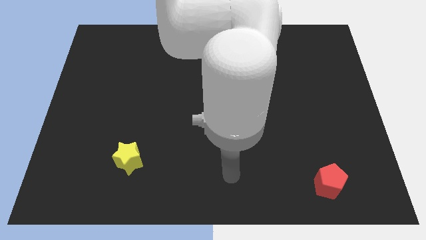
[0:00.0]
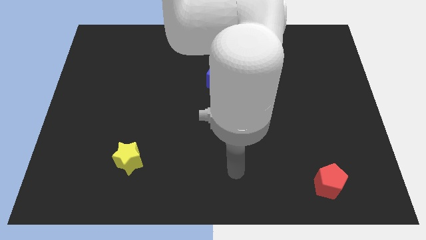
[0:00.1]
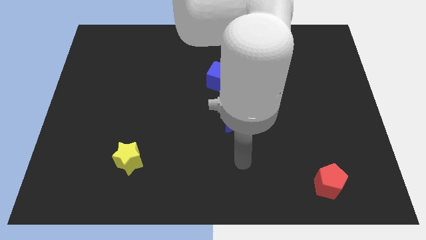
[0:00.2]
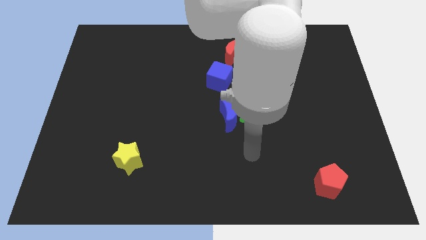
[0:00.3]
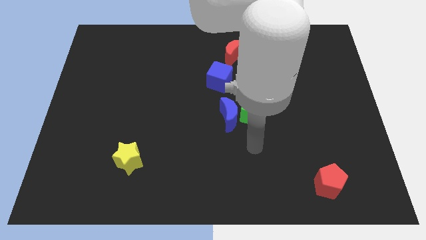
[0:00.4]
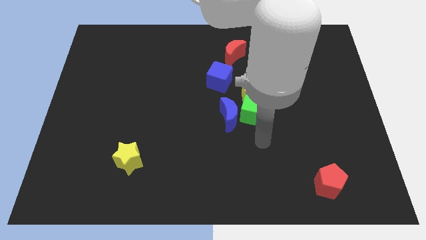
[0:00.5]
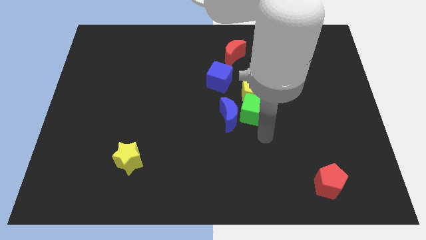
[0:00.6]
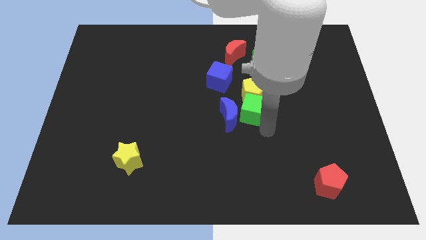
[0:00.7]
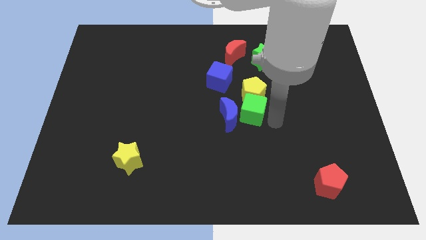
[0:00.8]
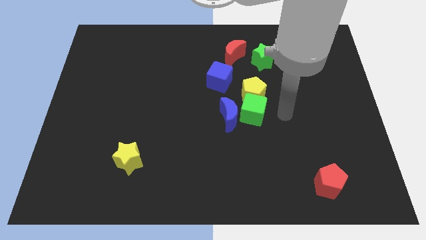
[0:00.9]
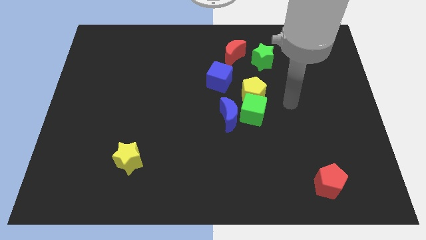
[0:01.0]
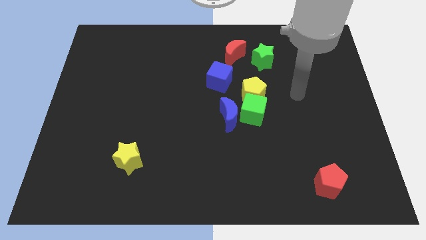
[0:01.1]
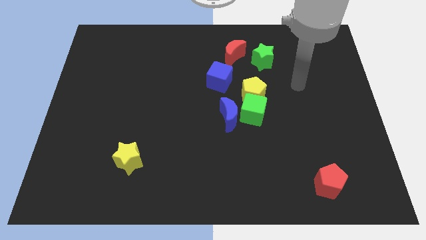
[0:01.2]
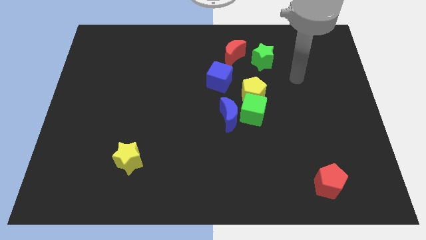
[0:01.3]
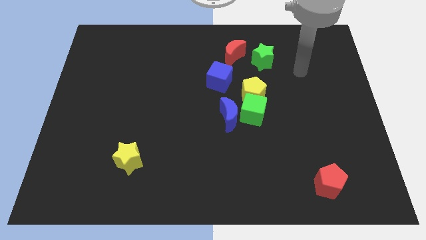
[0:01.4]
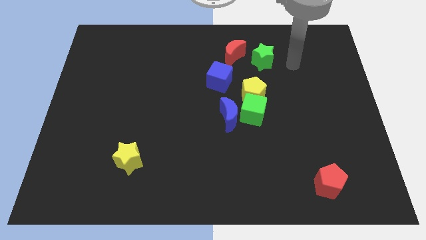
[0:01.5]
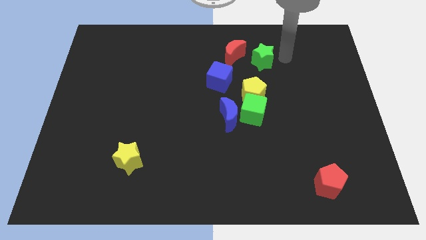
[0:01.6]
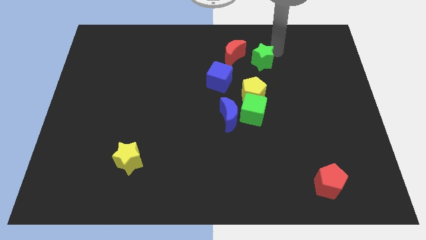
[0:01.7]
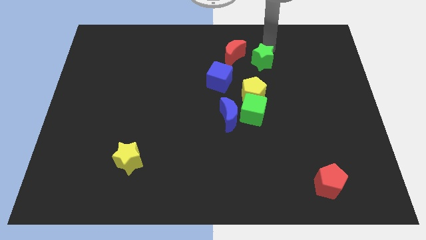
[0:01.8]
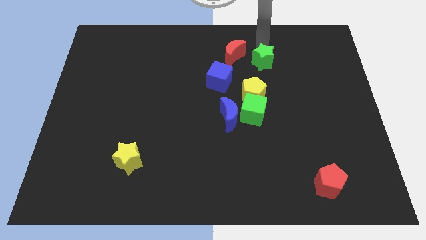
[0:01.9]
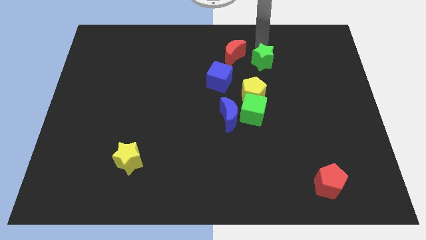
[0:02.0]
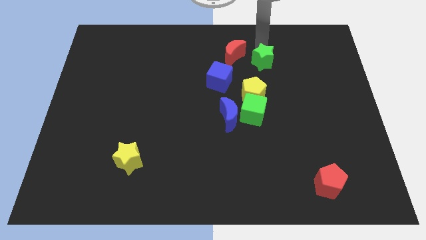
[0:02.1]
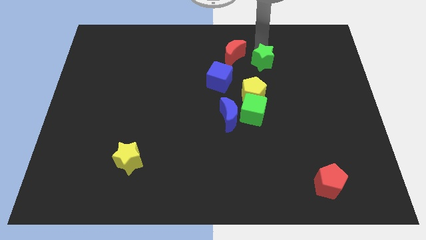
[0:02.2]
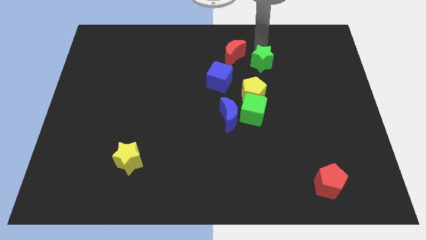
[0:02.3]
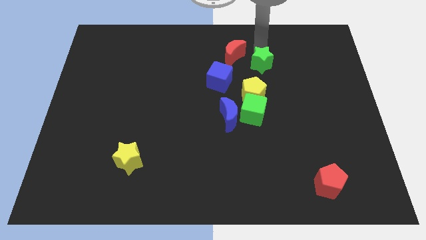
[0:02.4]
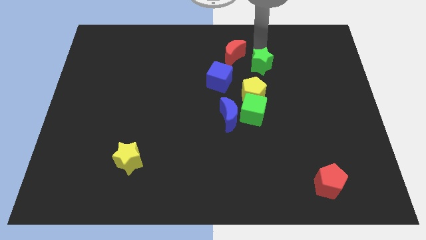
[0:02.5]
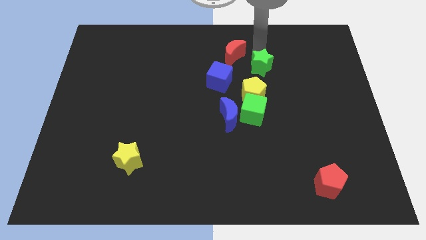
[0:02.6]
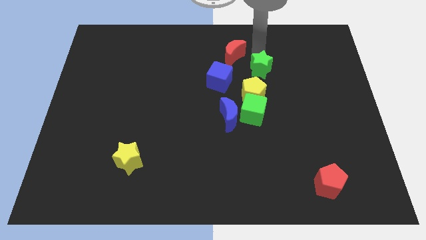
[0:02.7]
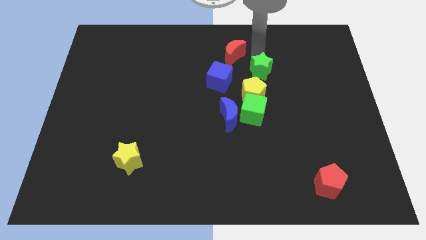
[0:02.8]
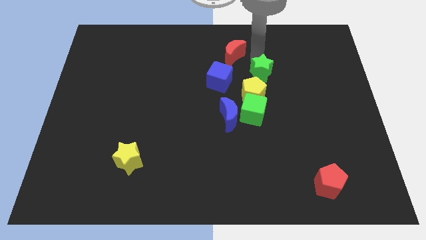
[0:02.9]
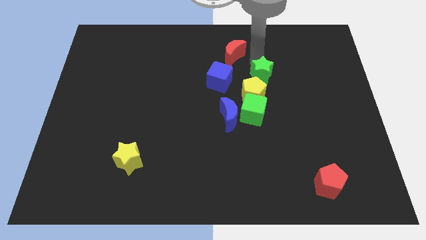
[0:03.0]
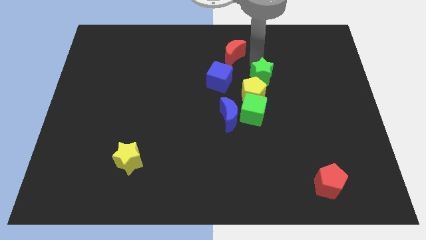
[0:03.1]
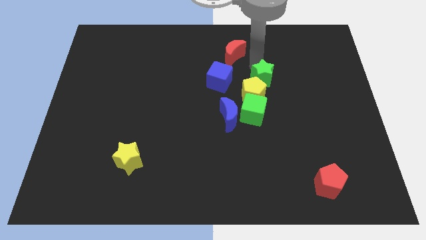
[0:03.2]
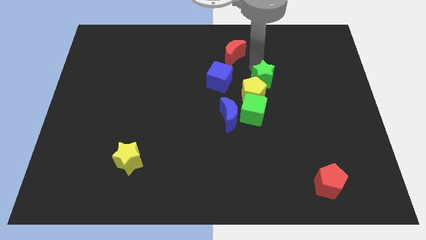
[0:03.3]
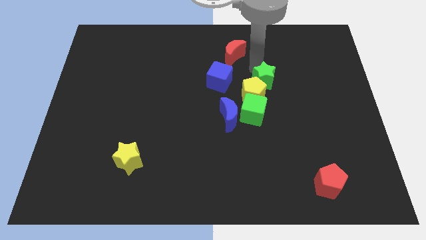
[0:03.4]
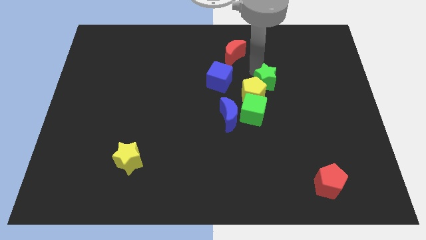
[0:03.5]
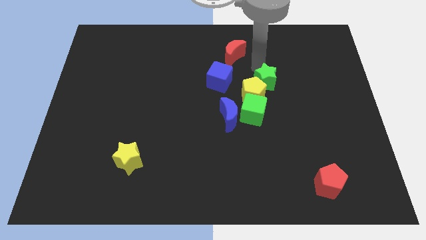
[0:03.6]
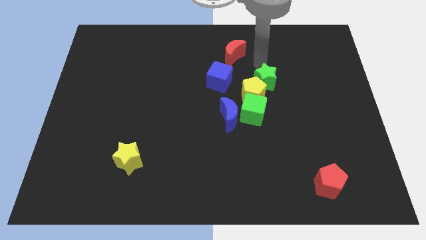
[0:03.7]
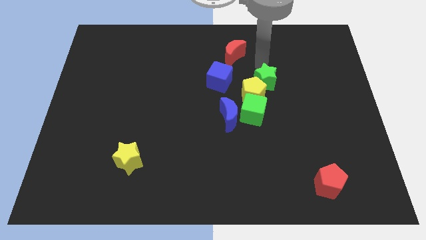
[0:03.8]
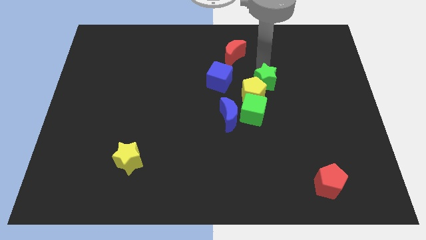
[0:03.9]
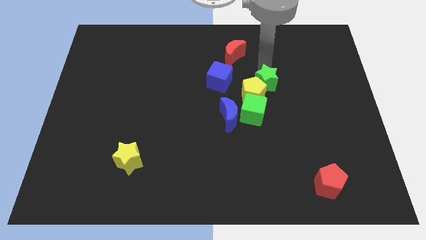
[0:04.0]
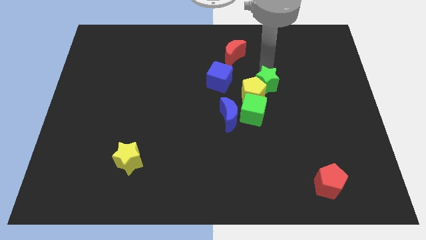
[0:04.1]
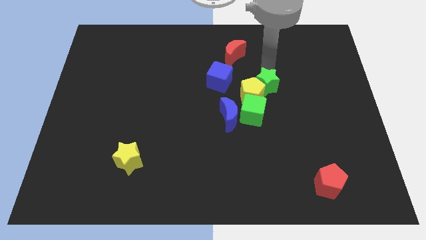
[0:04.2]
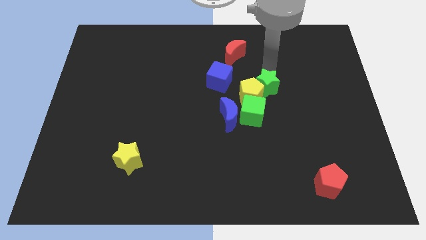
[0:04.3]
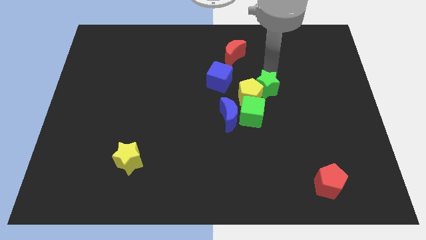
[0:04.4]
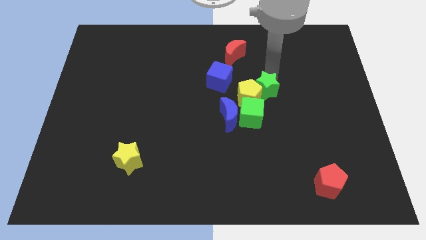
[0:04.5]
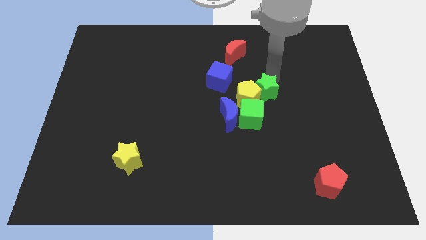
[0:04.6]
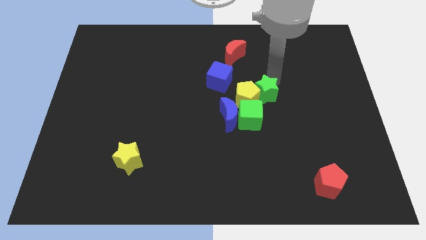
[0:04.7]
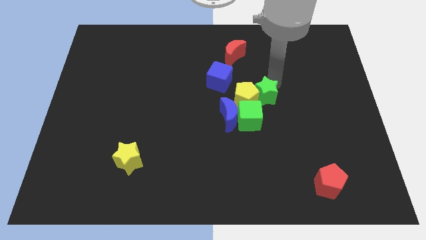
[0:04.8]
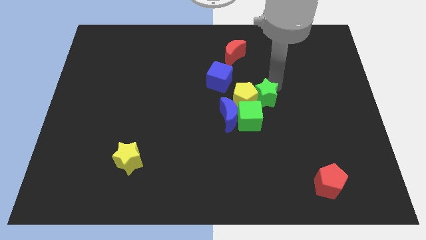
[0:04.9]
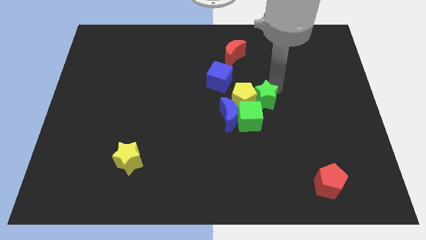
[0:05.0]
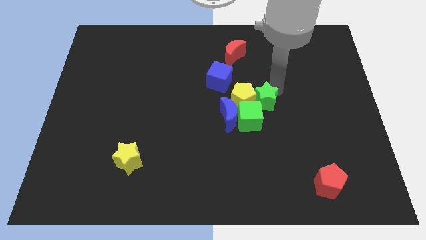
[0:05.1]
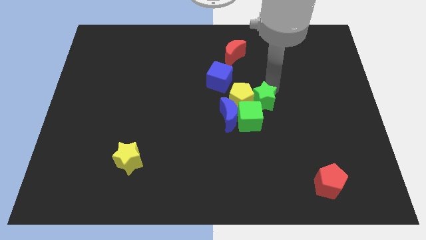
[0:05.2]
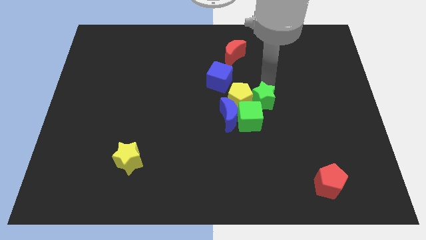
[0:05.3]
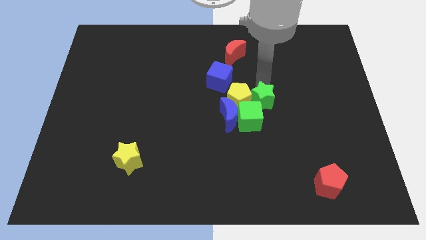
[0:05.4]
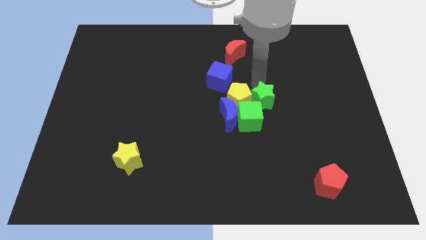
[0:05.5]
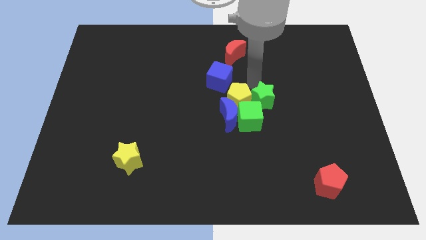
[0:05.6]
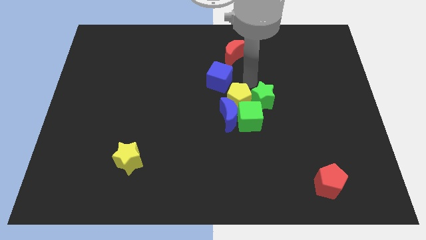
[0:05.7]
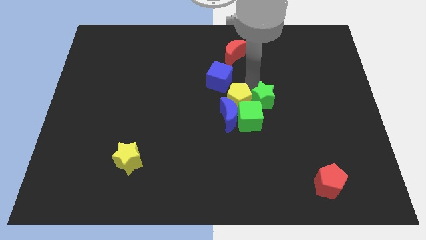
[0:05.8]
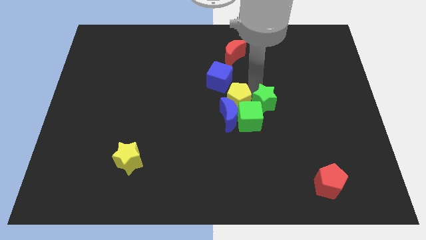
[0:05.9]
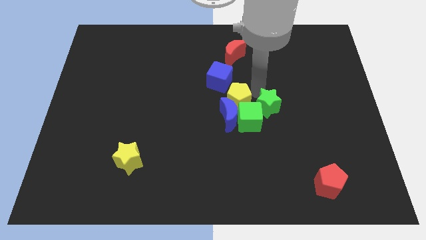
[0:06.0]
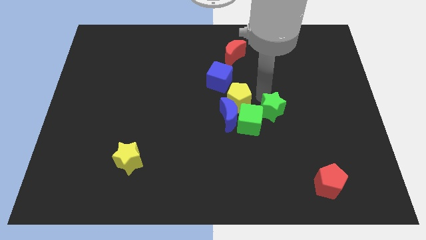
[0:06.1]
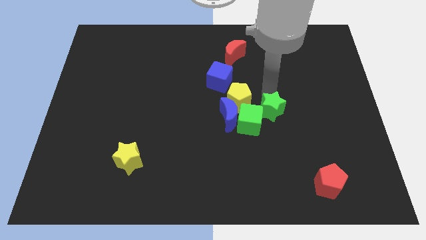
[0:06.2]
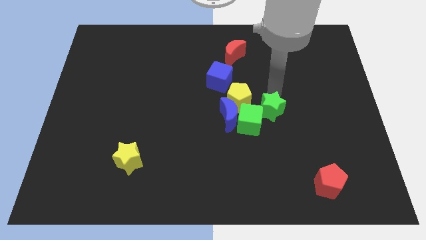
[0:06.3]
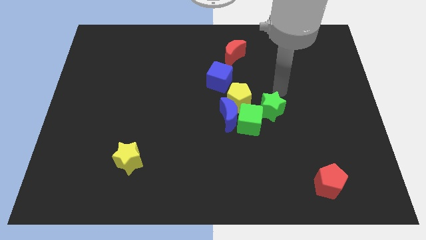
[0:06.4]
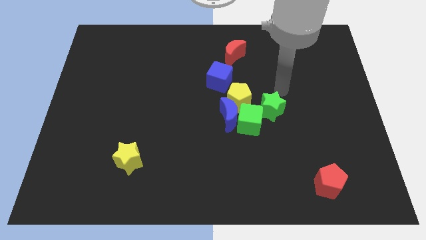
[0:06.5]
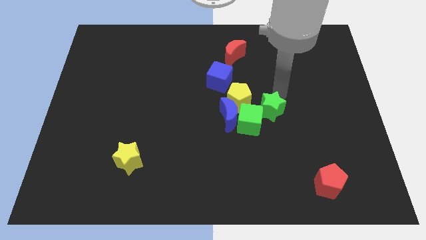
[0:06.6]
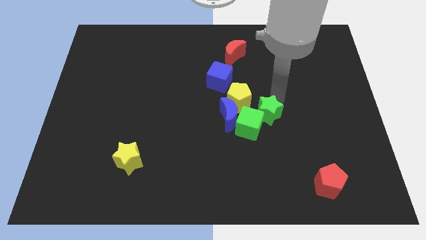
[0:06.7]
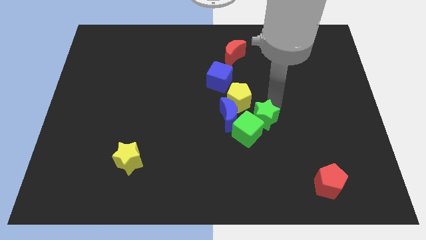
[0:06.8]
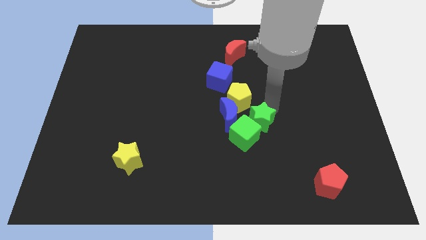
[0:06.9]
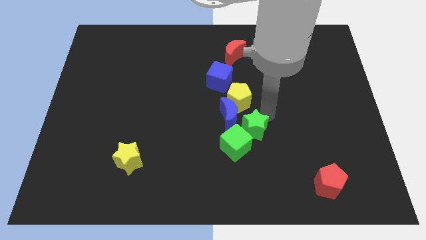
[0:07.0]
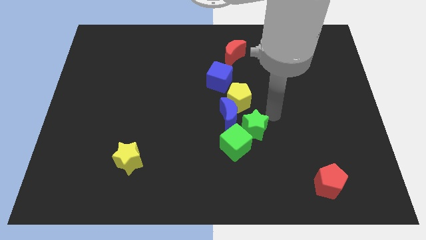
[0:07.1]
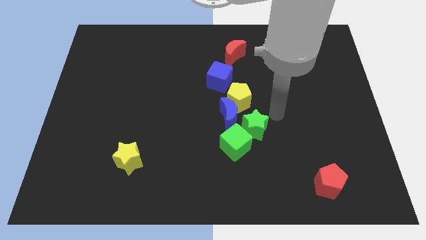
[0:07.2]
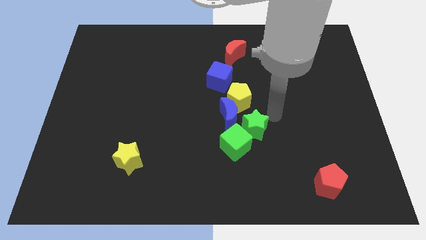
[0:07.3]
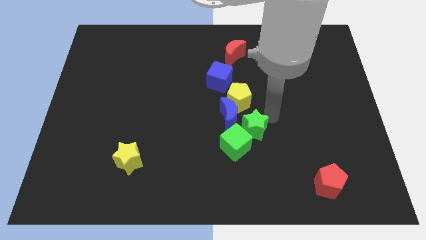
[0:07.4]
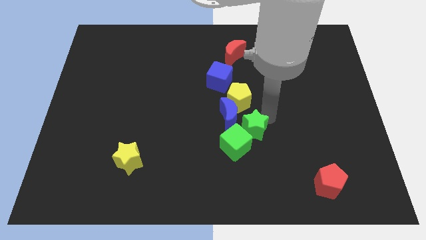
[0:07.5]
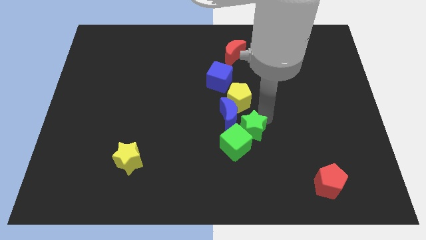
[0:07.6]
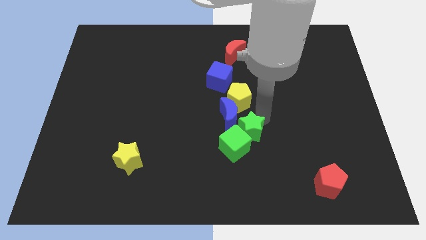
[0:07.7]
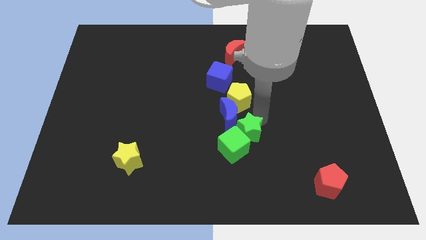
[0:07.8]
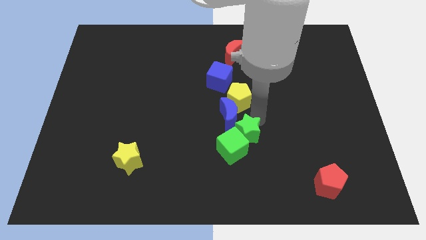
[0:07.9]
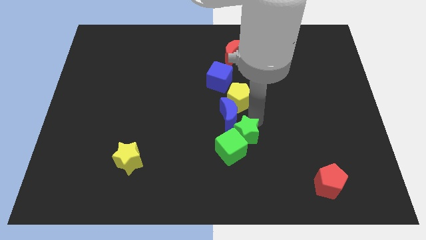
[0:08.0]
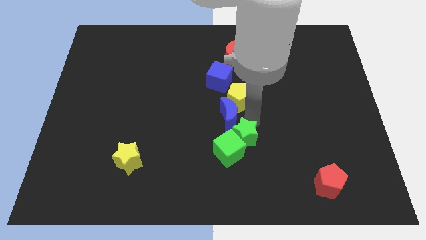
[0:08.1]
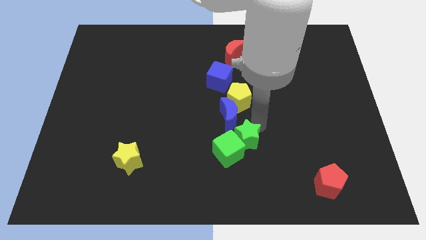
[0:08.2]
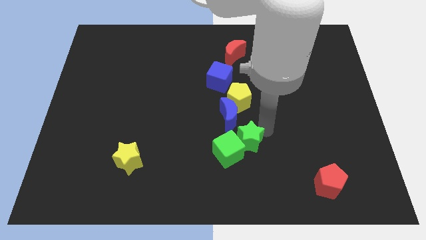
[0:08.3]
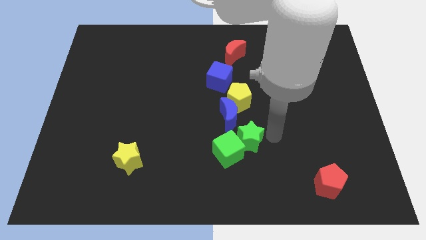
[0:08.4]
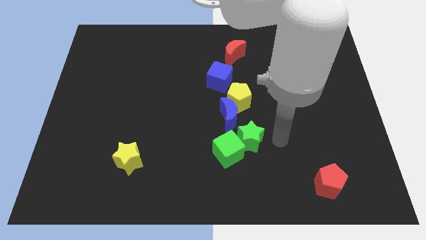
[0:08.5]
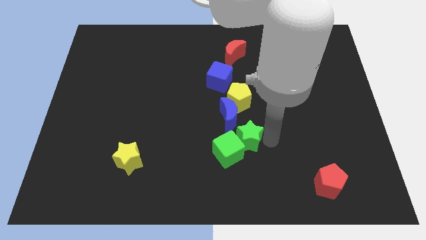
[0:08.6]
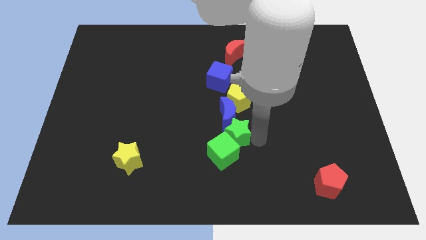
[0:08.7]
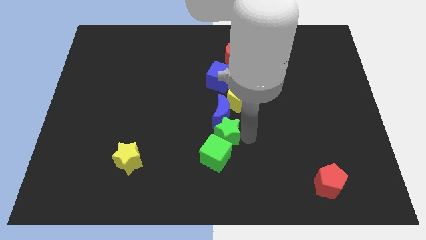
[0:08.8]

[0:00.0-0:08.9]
slide the green star downwards and left
